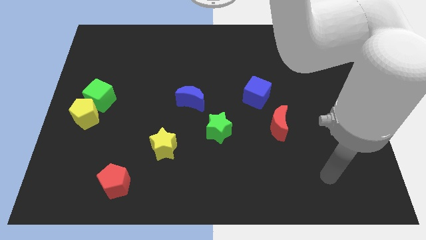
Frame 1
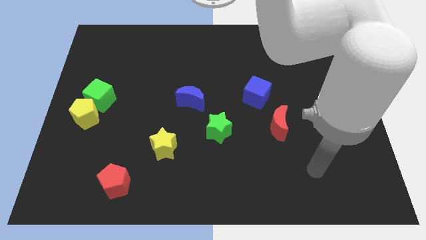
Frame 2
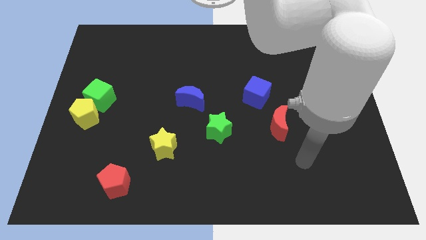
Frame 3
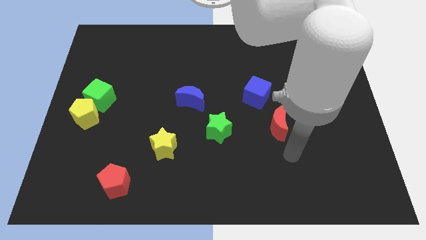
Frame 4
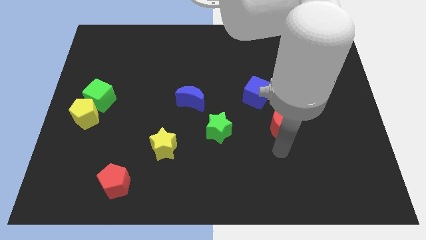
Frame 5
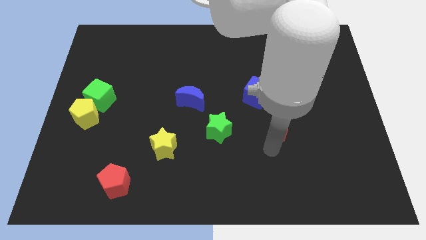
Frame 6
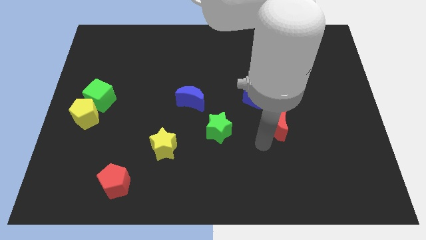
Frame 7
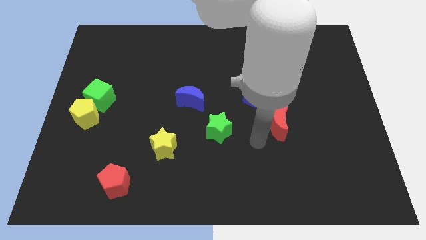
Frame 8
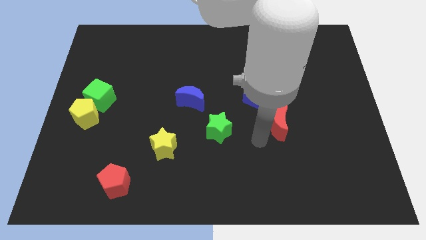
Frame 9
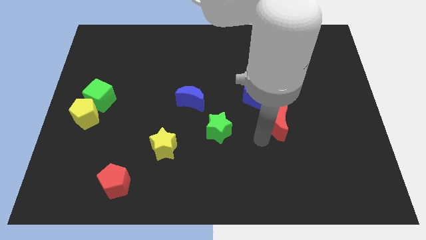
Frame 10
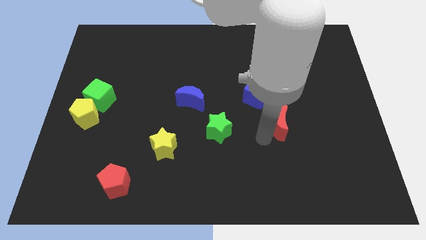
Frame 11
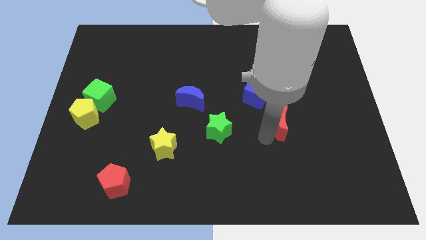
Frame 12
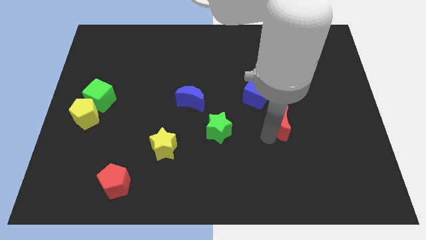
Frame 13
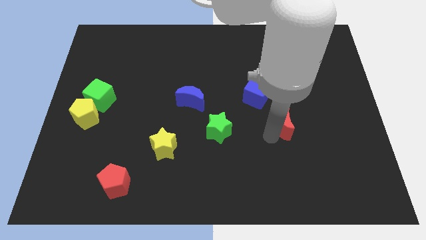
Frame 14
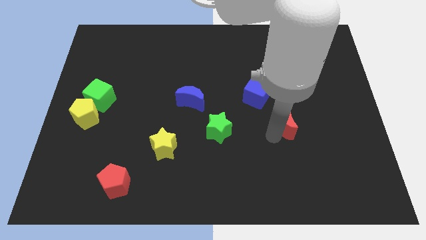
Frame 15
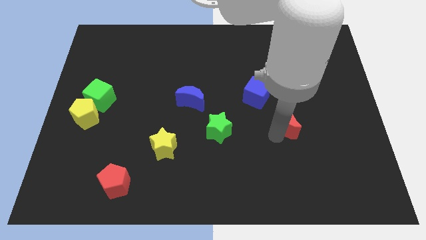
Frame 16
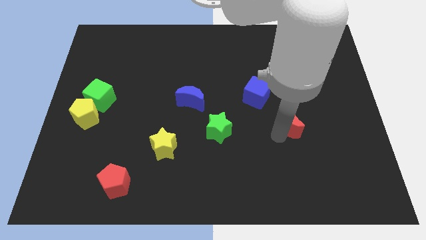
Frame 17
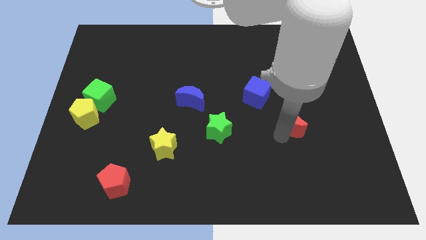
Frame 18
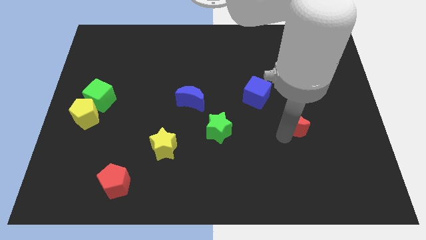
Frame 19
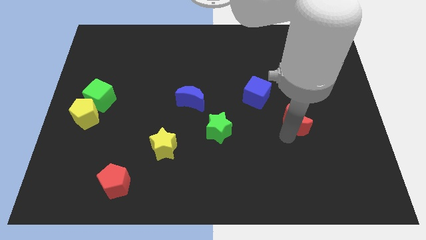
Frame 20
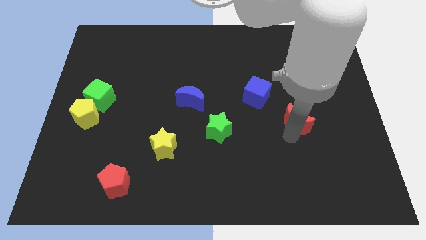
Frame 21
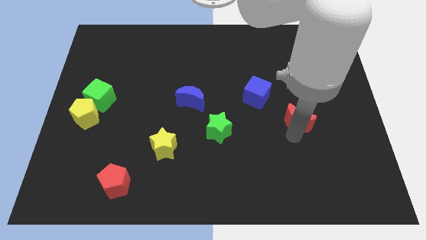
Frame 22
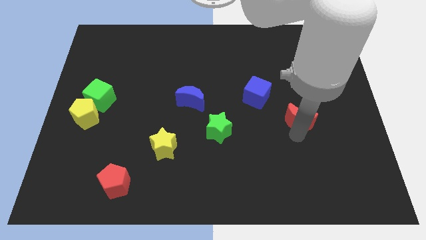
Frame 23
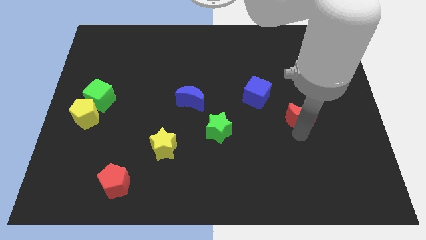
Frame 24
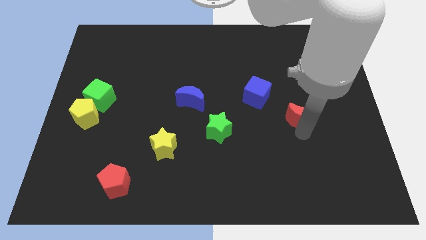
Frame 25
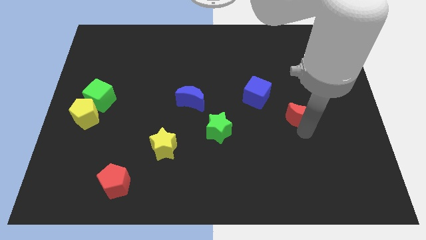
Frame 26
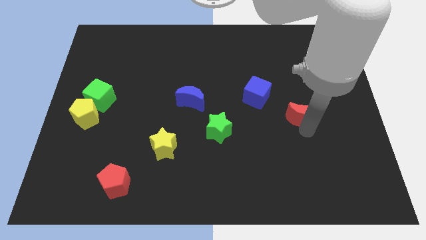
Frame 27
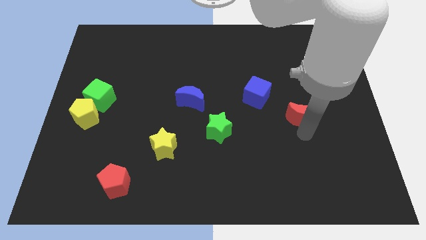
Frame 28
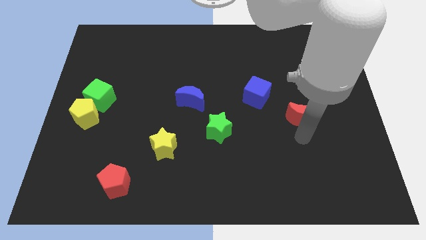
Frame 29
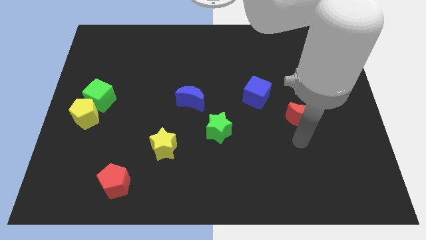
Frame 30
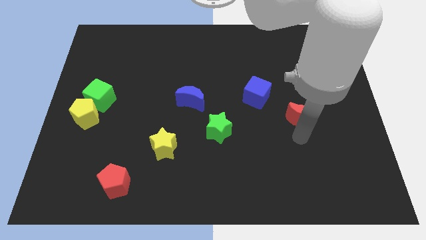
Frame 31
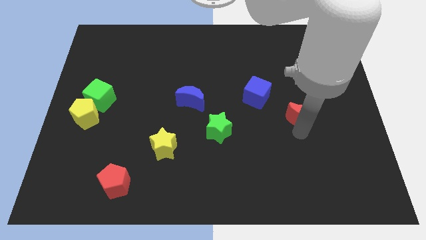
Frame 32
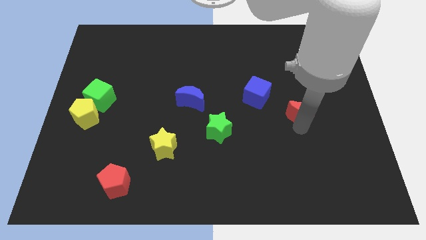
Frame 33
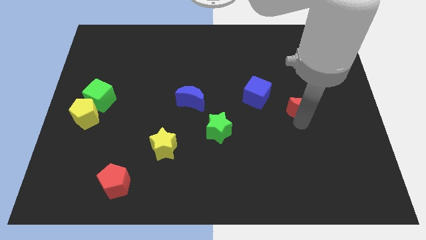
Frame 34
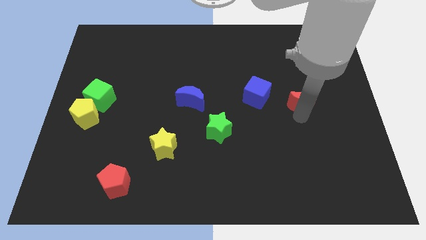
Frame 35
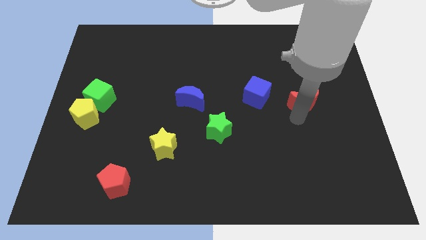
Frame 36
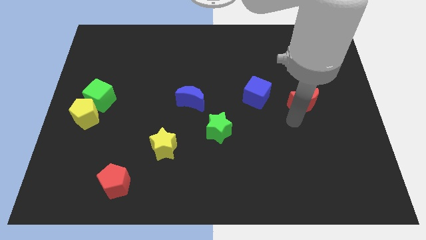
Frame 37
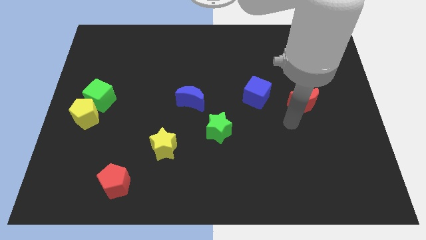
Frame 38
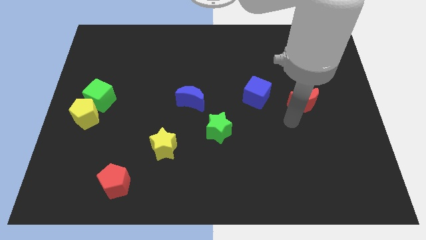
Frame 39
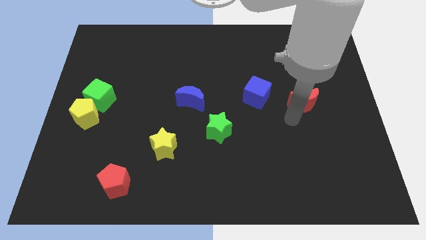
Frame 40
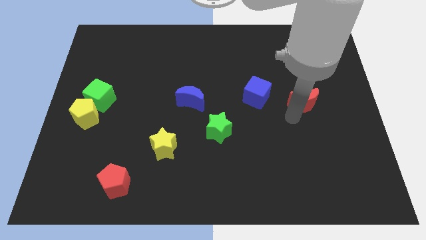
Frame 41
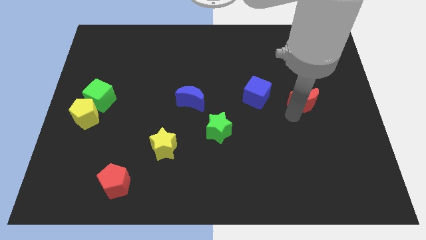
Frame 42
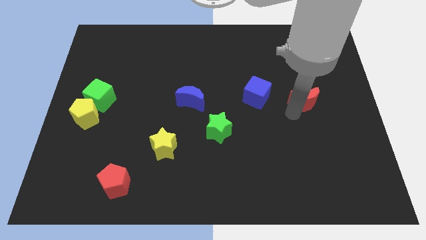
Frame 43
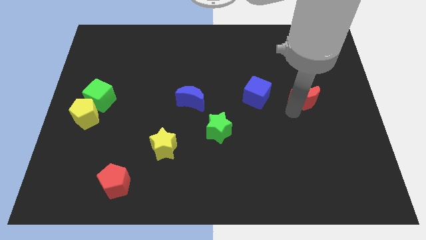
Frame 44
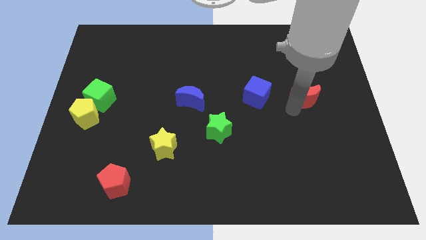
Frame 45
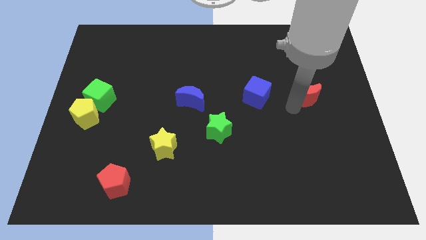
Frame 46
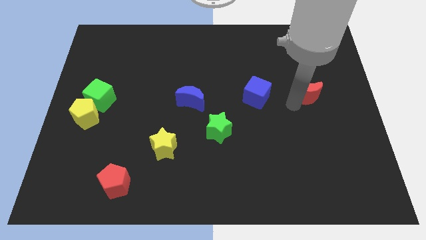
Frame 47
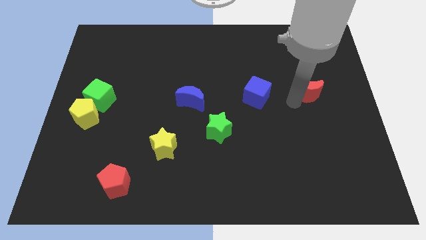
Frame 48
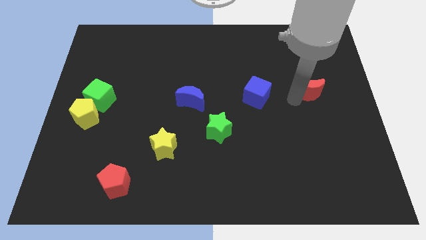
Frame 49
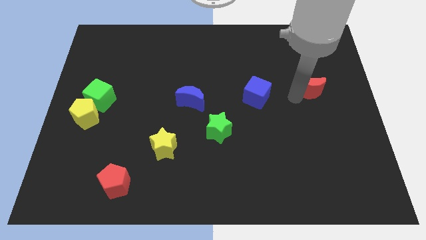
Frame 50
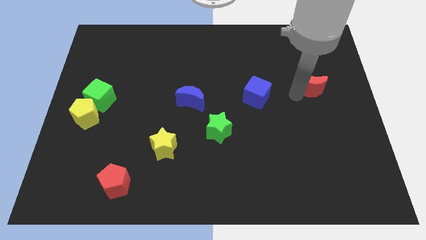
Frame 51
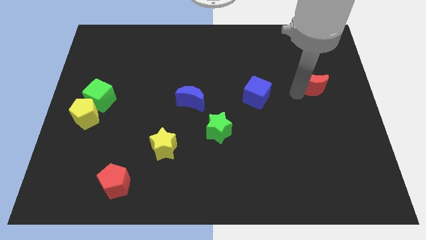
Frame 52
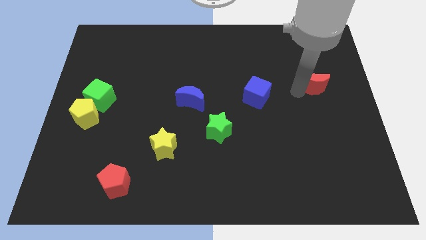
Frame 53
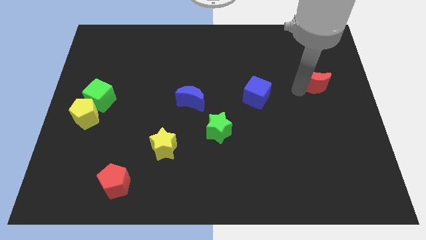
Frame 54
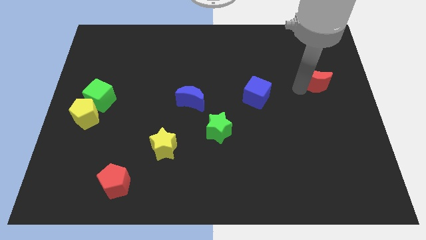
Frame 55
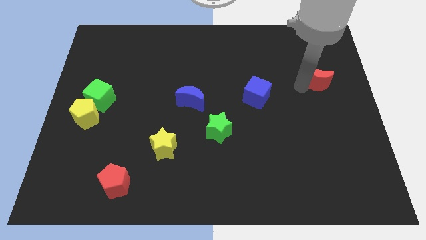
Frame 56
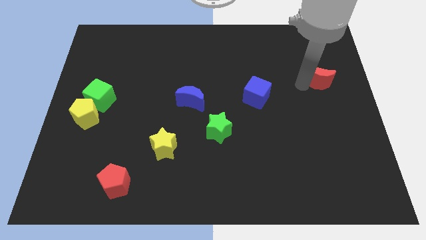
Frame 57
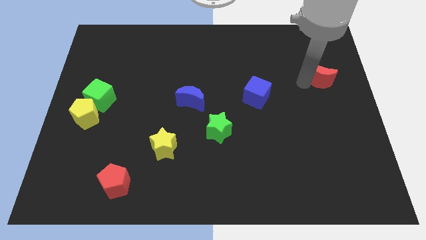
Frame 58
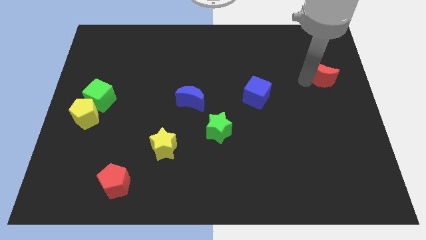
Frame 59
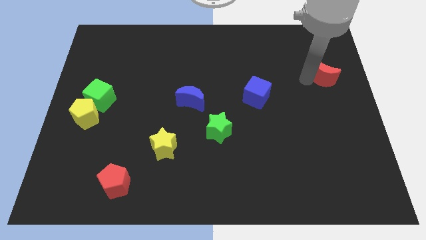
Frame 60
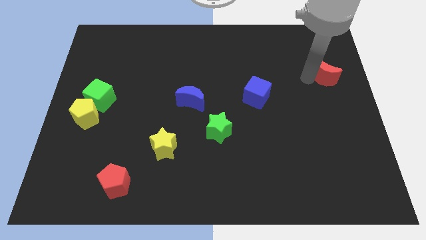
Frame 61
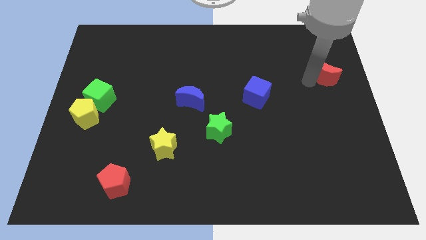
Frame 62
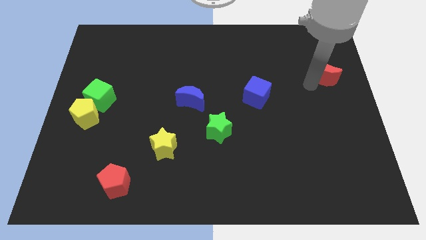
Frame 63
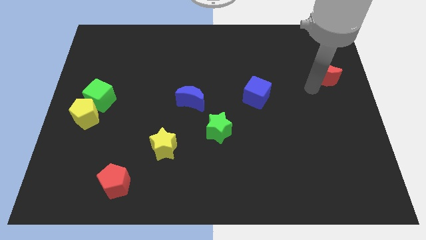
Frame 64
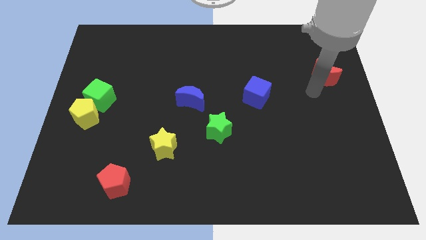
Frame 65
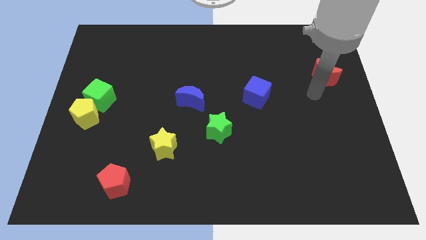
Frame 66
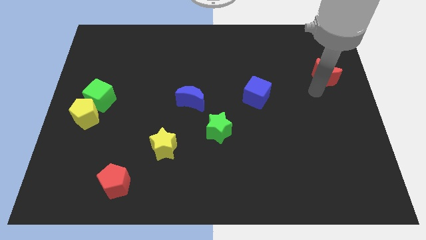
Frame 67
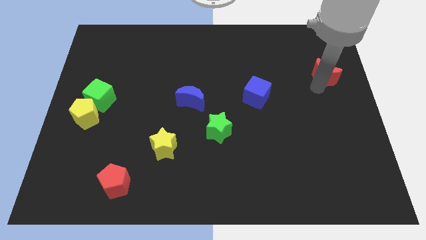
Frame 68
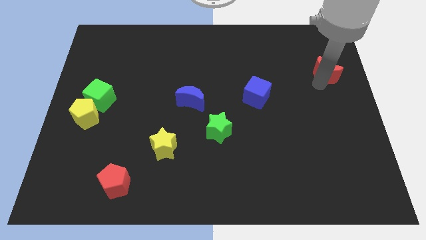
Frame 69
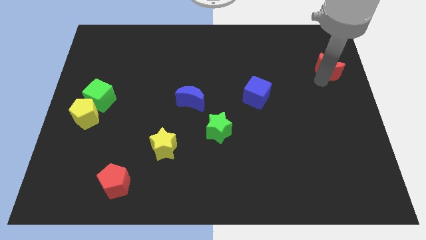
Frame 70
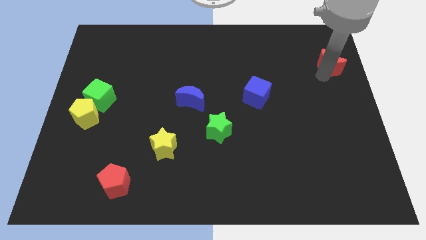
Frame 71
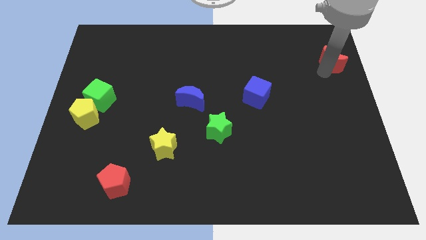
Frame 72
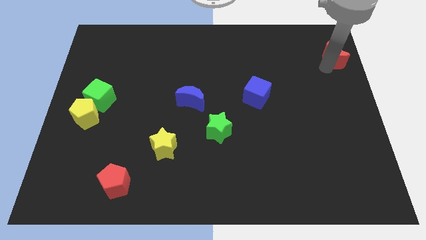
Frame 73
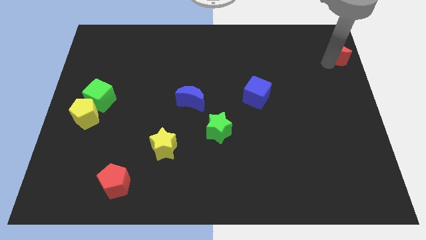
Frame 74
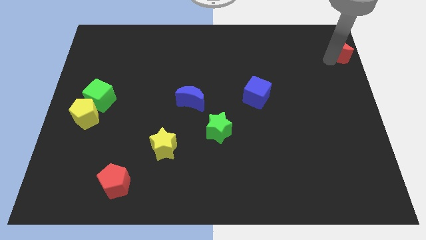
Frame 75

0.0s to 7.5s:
slide the red moon to the top right of the board
